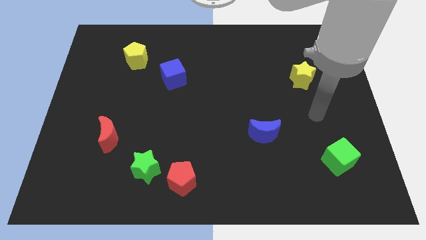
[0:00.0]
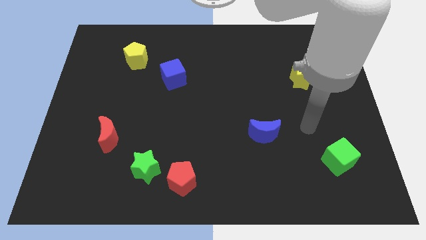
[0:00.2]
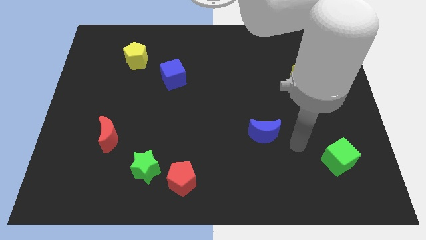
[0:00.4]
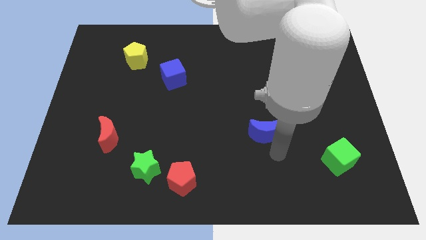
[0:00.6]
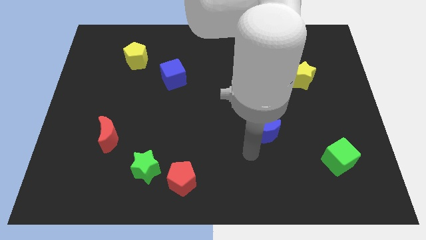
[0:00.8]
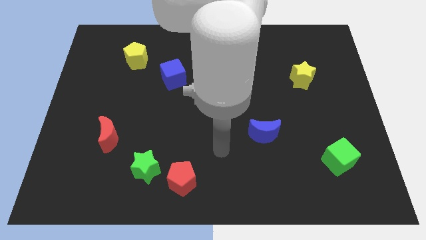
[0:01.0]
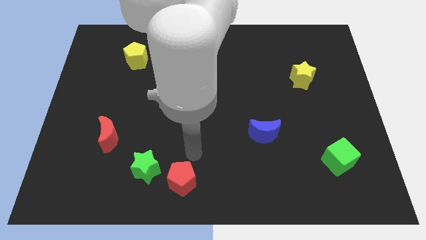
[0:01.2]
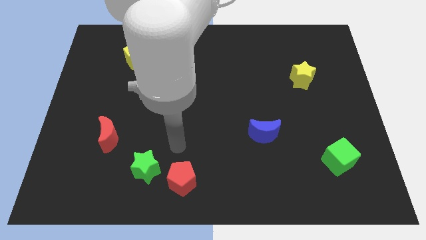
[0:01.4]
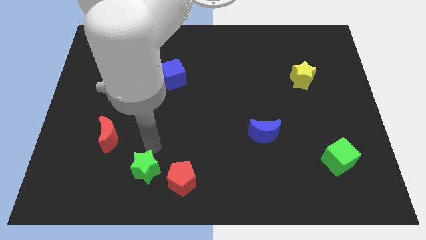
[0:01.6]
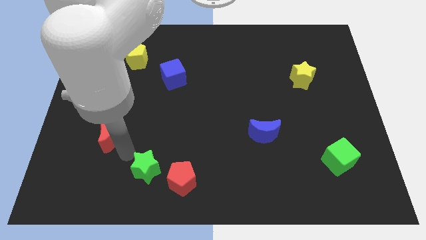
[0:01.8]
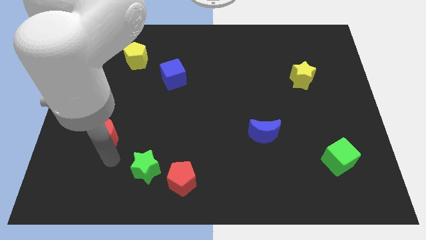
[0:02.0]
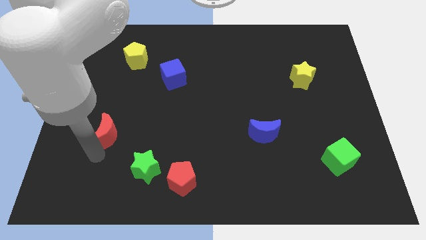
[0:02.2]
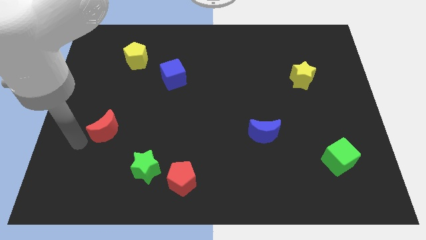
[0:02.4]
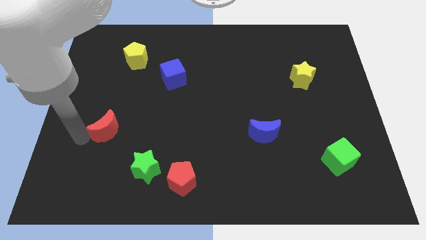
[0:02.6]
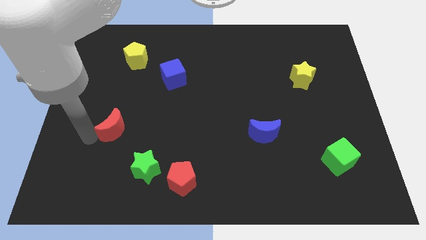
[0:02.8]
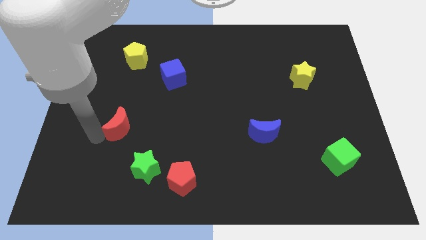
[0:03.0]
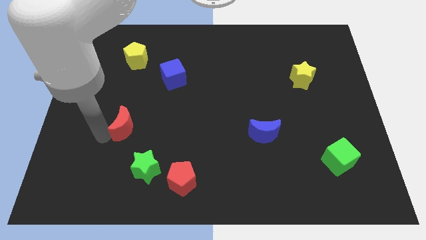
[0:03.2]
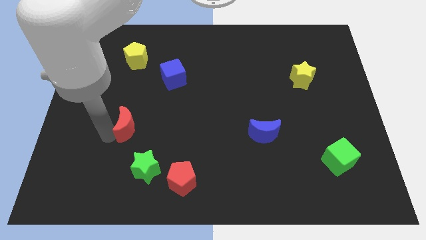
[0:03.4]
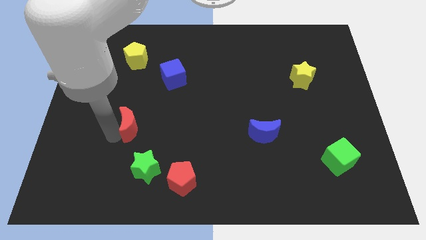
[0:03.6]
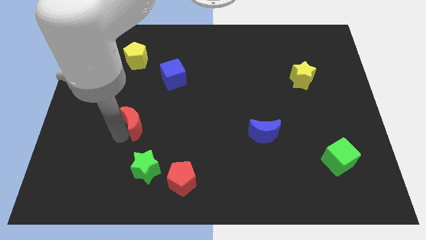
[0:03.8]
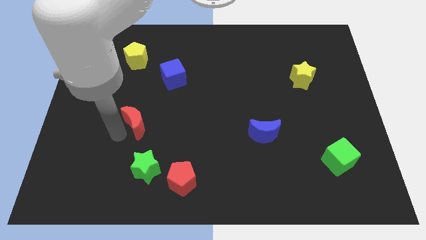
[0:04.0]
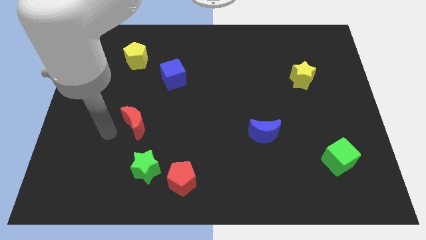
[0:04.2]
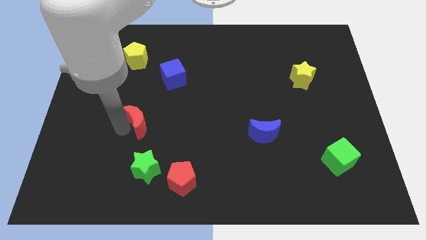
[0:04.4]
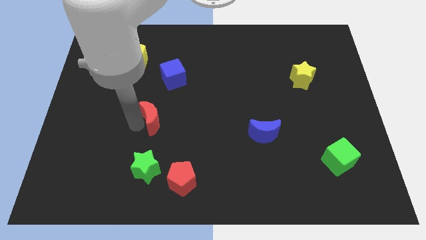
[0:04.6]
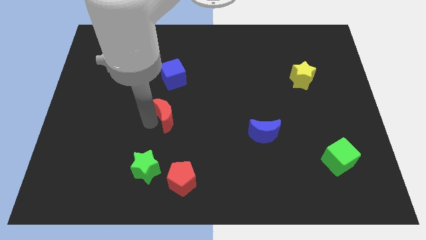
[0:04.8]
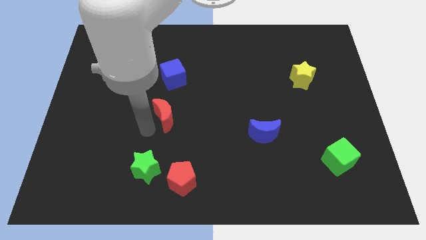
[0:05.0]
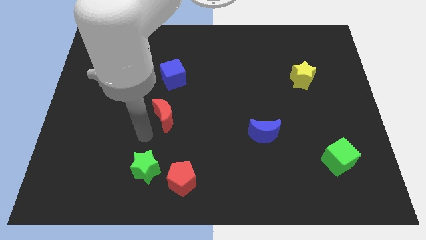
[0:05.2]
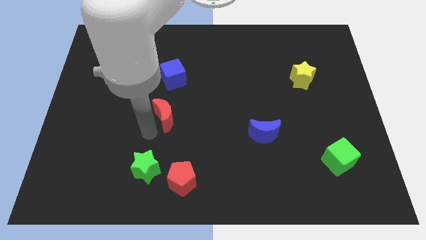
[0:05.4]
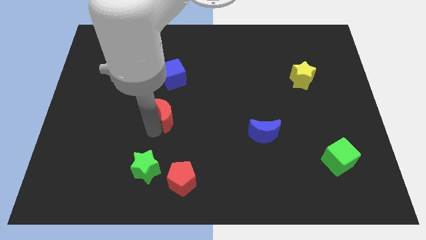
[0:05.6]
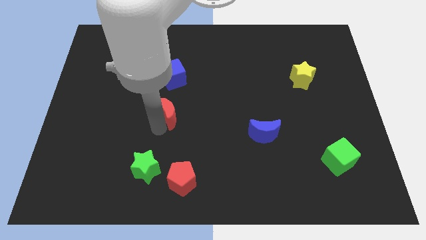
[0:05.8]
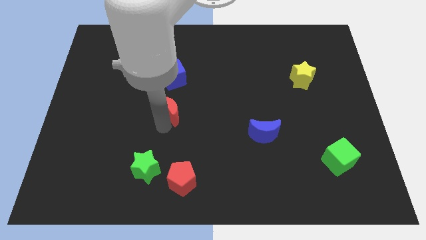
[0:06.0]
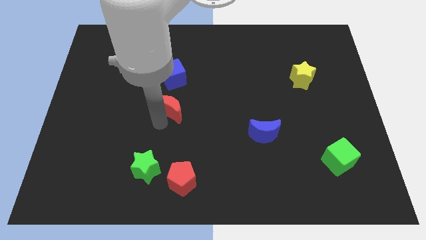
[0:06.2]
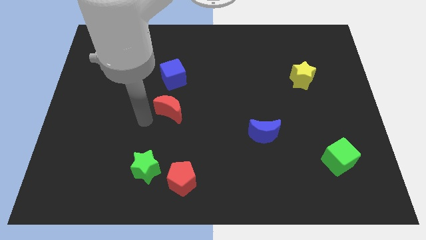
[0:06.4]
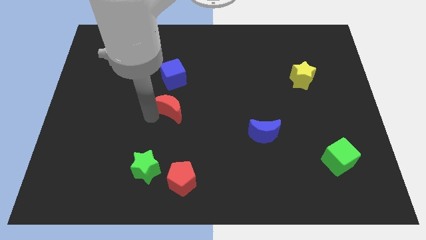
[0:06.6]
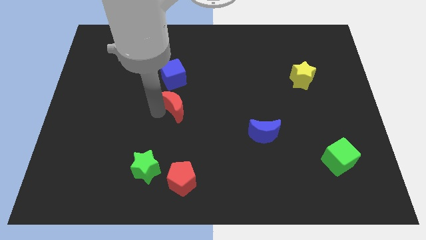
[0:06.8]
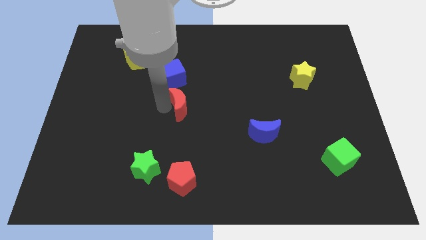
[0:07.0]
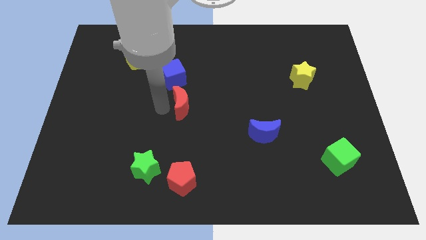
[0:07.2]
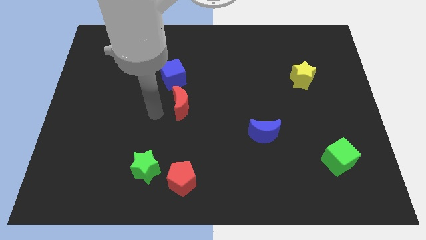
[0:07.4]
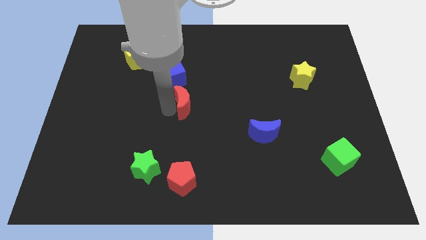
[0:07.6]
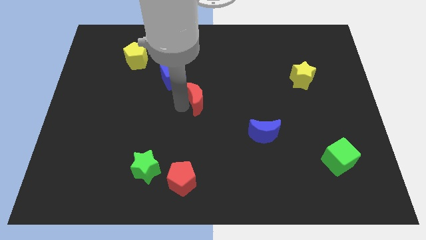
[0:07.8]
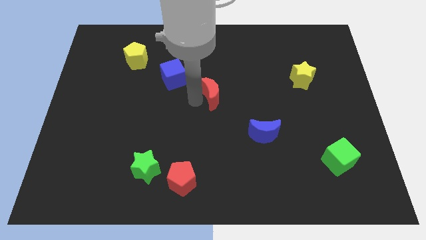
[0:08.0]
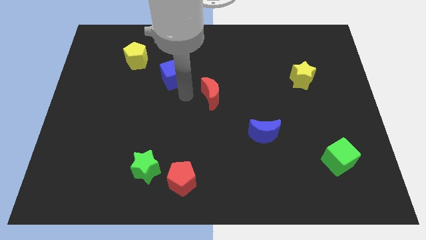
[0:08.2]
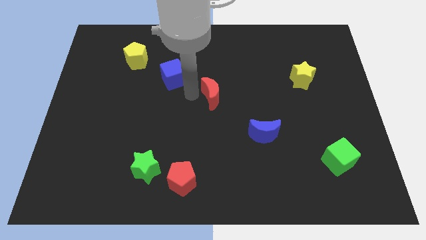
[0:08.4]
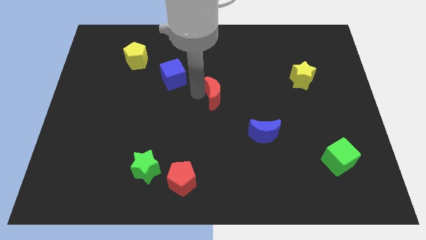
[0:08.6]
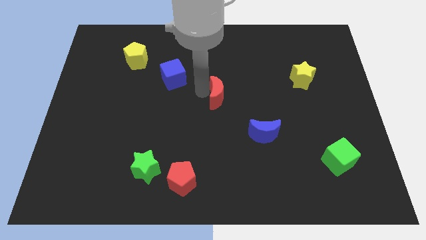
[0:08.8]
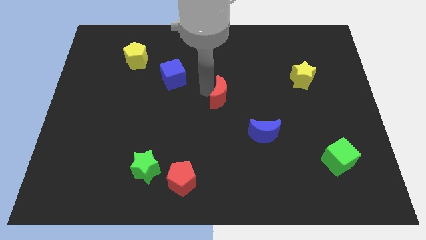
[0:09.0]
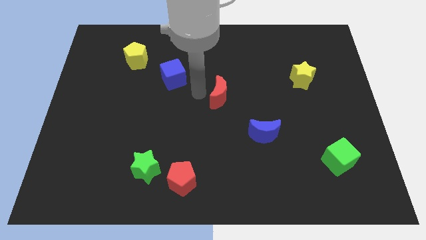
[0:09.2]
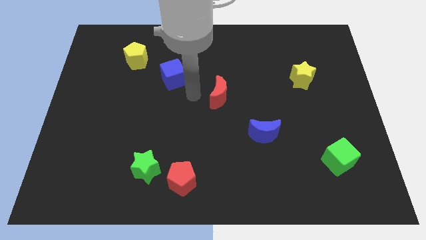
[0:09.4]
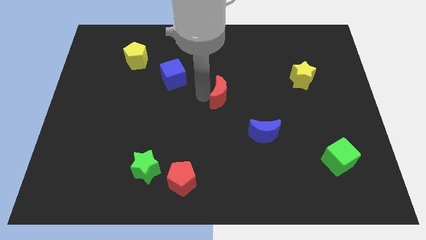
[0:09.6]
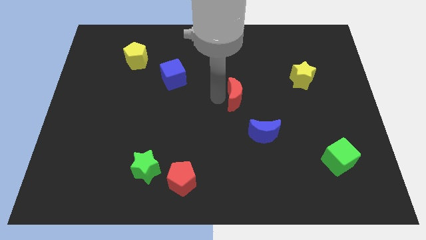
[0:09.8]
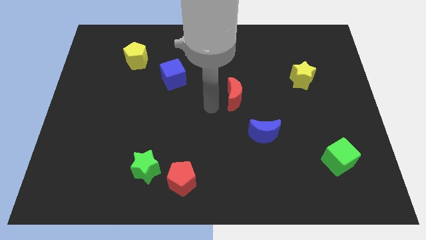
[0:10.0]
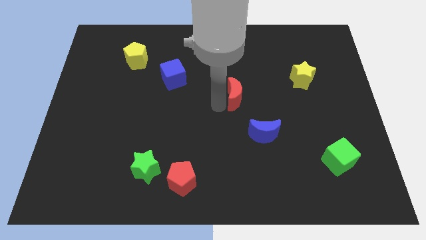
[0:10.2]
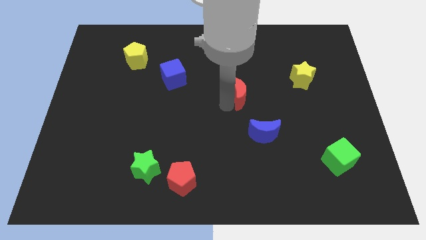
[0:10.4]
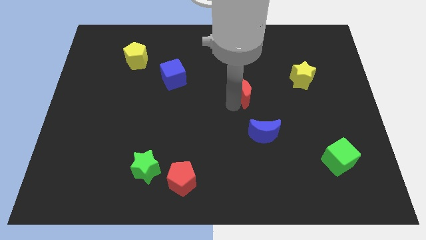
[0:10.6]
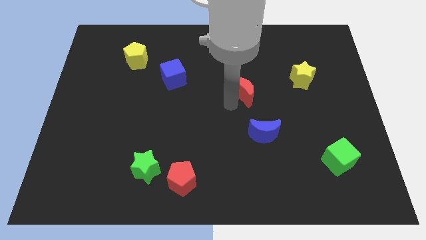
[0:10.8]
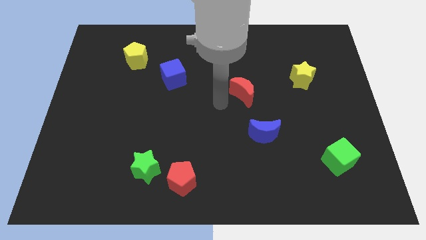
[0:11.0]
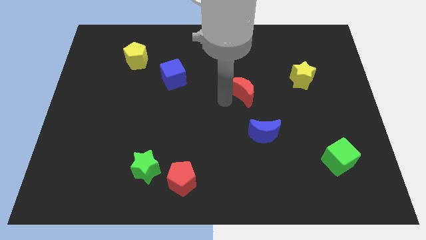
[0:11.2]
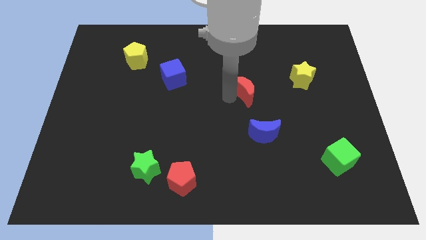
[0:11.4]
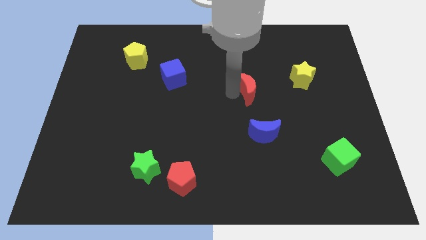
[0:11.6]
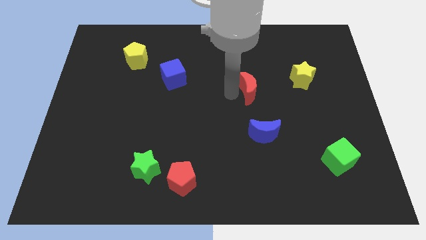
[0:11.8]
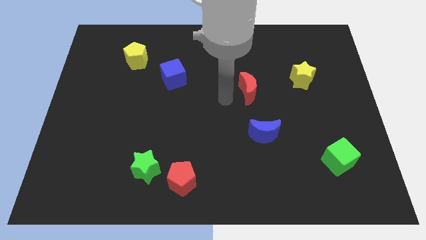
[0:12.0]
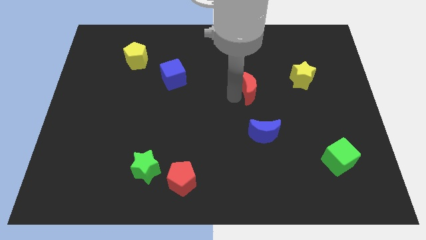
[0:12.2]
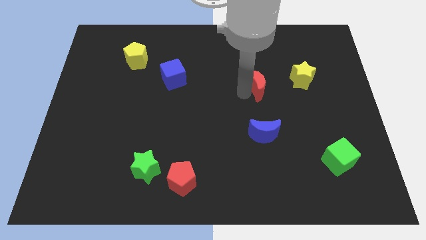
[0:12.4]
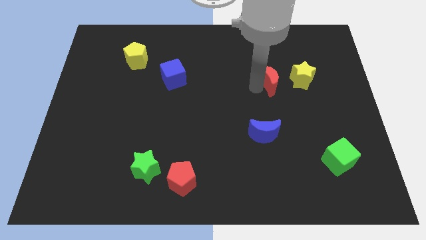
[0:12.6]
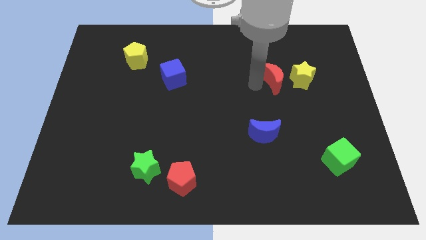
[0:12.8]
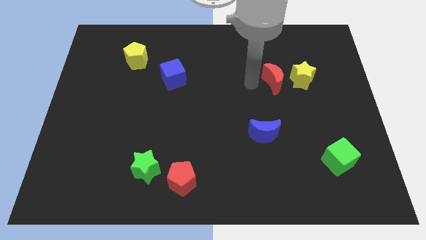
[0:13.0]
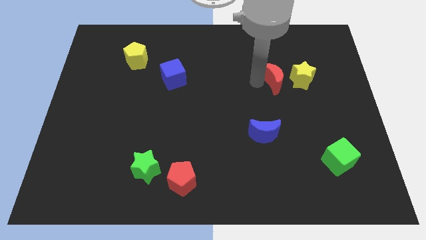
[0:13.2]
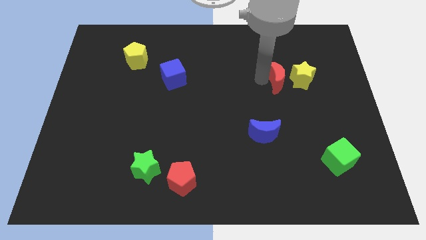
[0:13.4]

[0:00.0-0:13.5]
move the red moon next to the yellow star

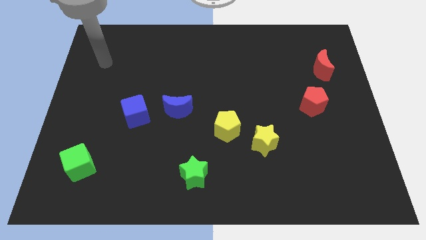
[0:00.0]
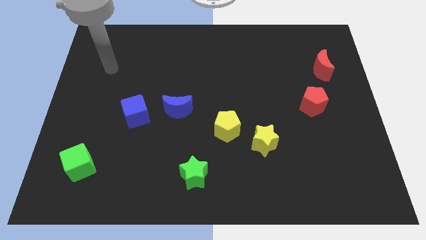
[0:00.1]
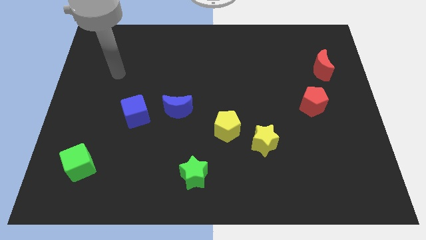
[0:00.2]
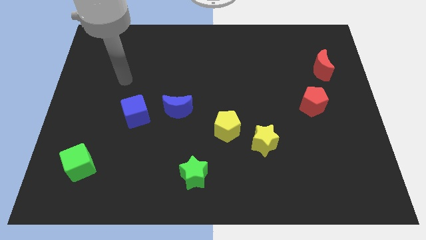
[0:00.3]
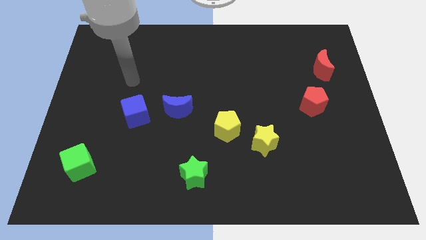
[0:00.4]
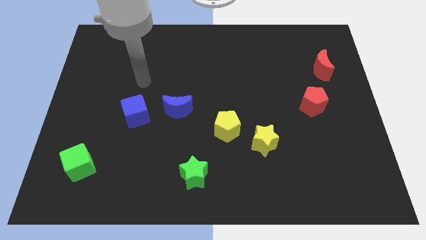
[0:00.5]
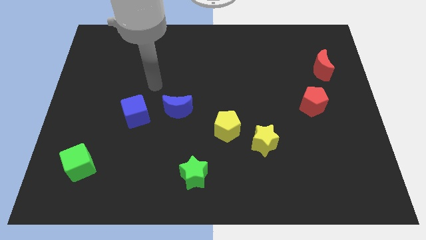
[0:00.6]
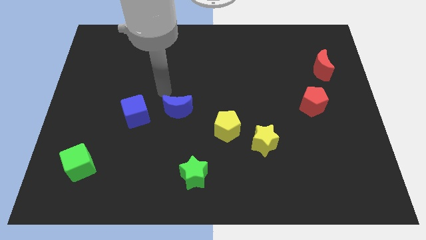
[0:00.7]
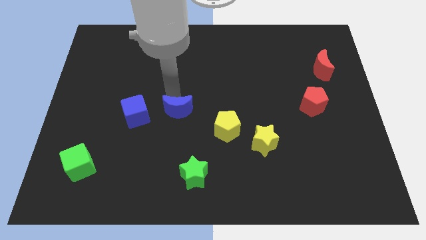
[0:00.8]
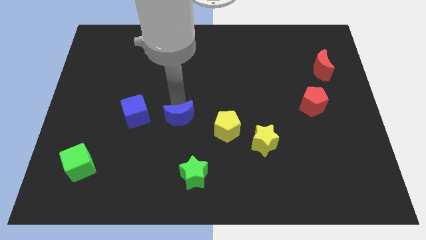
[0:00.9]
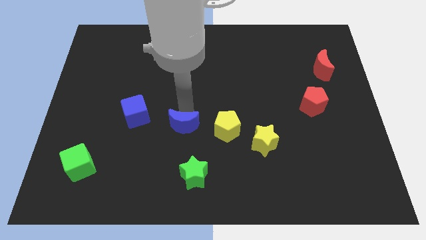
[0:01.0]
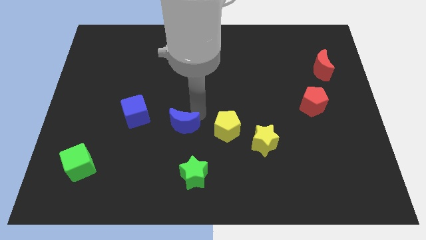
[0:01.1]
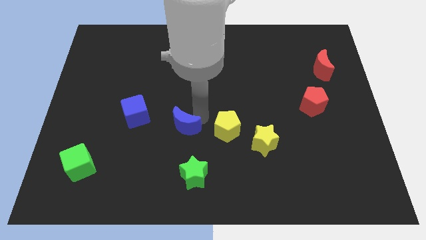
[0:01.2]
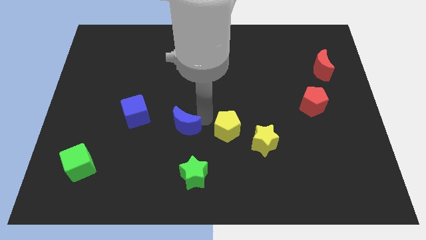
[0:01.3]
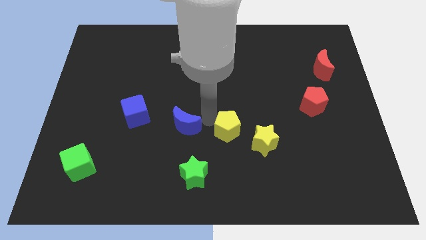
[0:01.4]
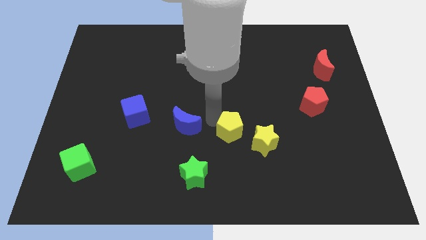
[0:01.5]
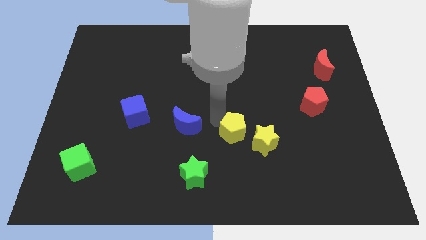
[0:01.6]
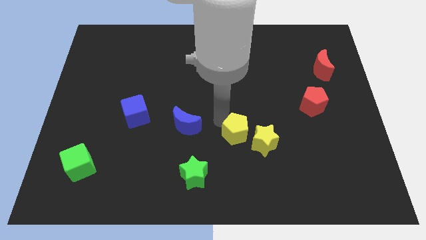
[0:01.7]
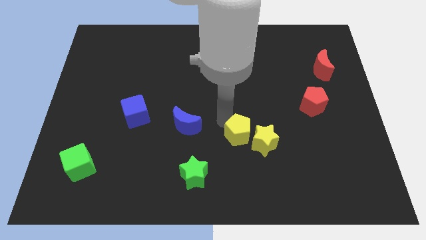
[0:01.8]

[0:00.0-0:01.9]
push the yellow pentagon to the yellow star
